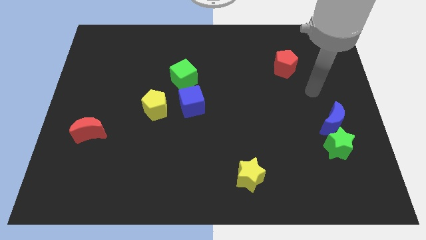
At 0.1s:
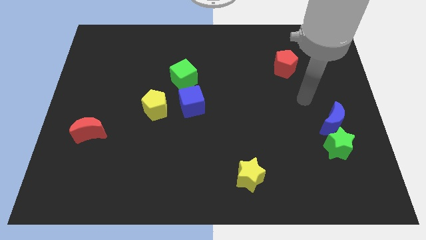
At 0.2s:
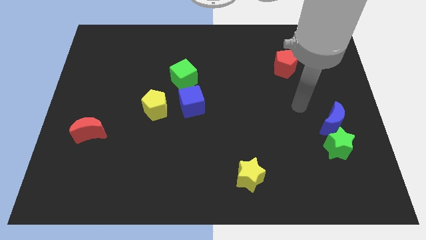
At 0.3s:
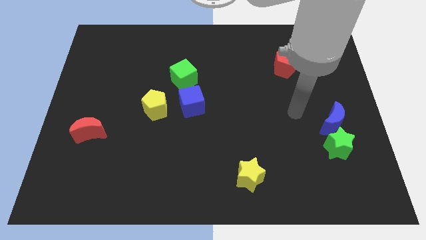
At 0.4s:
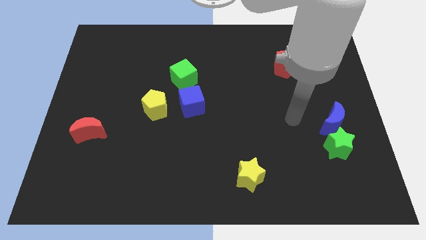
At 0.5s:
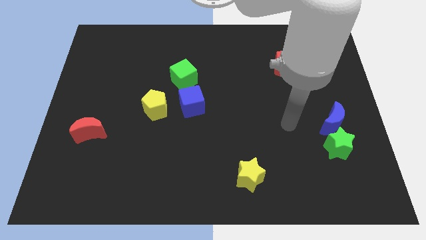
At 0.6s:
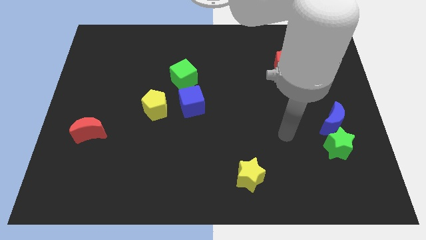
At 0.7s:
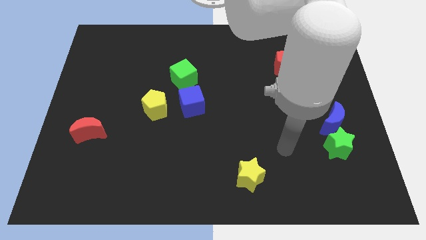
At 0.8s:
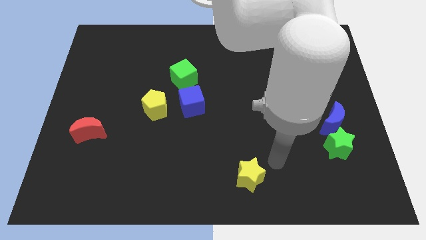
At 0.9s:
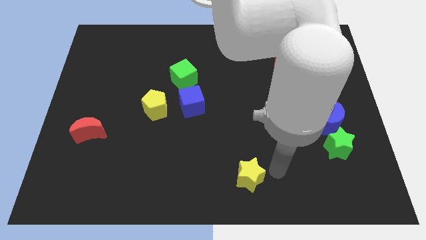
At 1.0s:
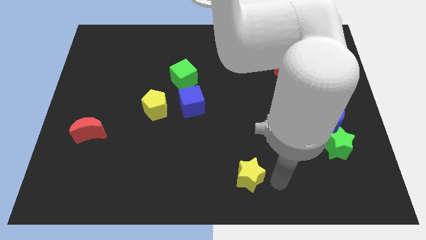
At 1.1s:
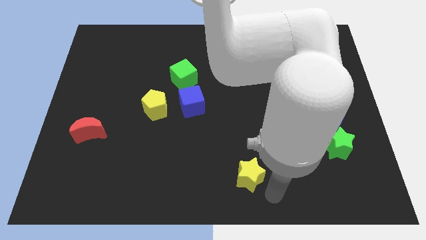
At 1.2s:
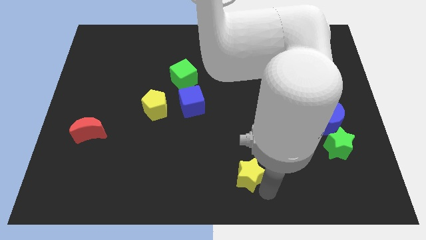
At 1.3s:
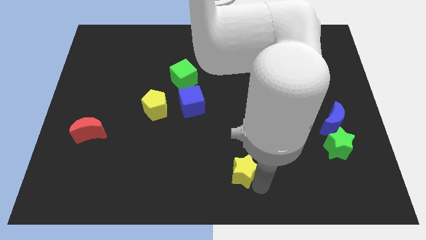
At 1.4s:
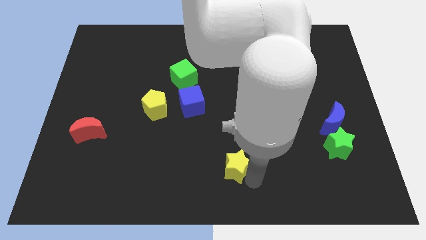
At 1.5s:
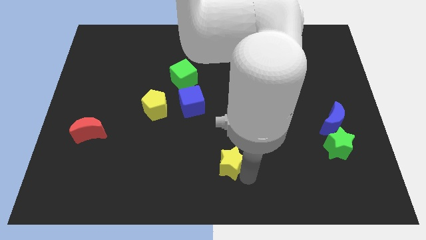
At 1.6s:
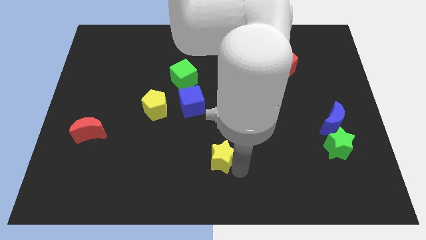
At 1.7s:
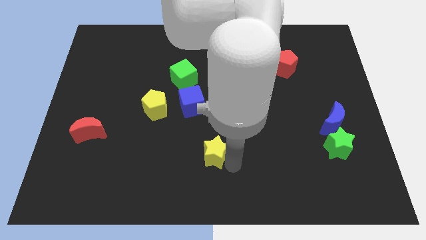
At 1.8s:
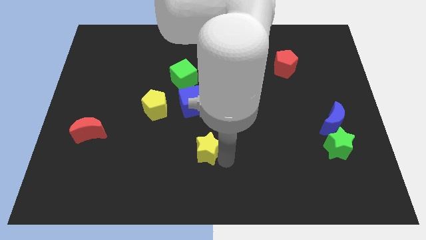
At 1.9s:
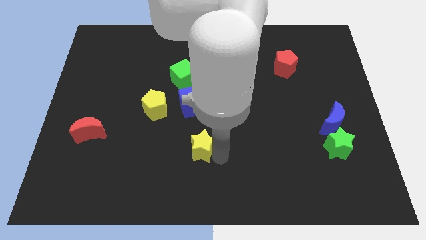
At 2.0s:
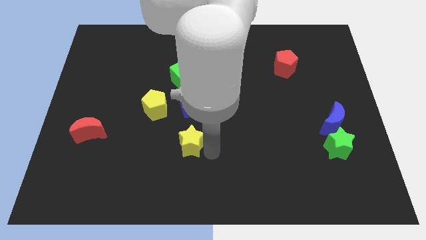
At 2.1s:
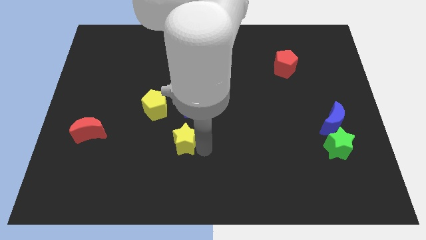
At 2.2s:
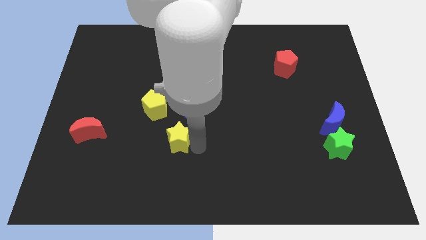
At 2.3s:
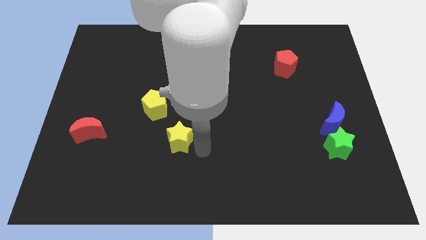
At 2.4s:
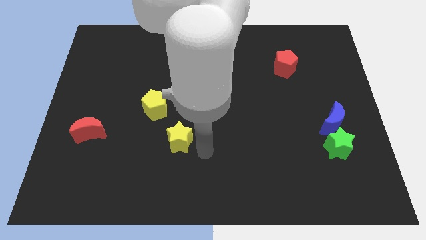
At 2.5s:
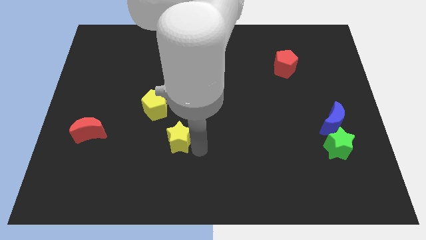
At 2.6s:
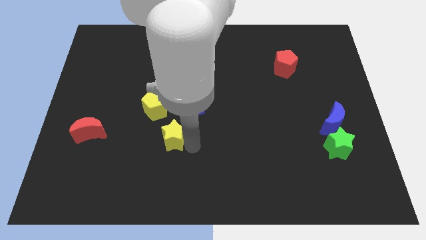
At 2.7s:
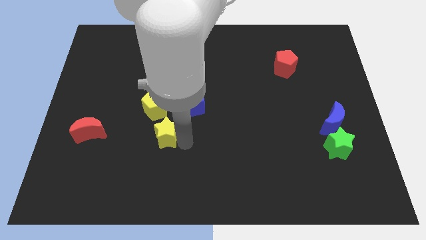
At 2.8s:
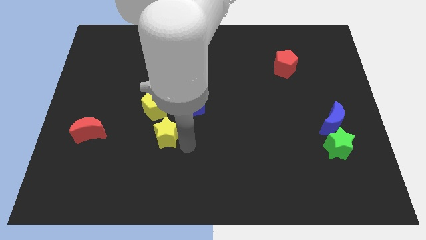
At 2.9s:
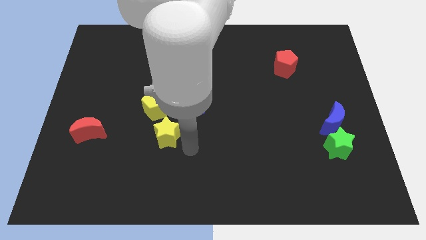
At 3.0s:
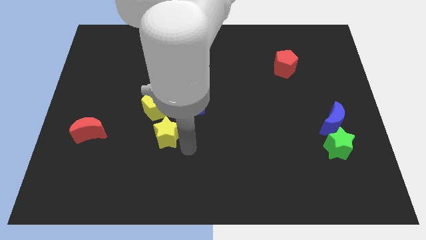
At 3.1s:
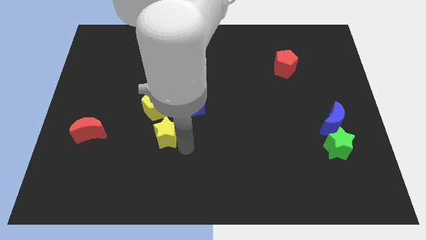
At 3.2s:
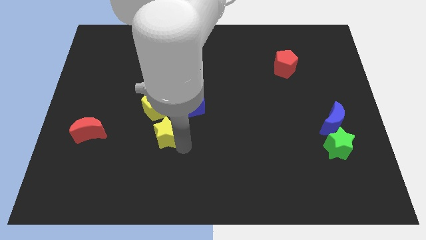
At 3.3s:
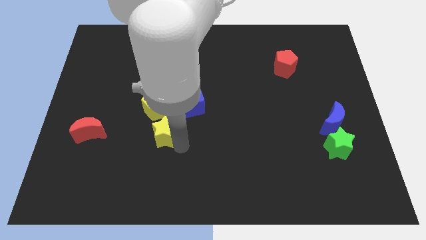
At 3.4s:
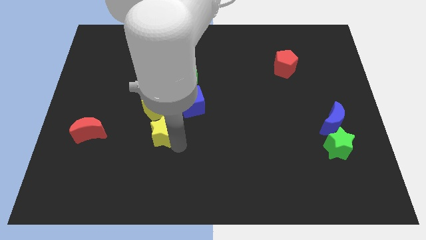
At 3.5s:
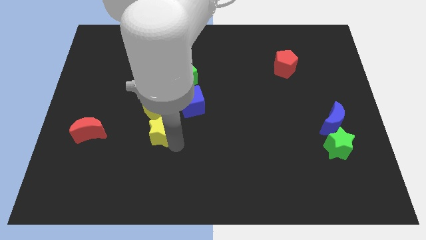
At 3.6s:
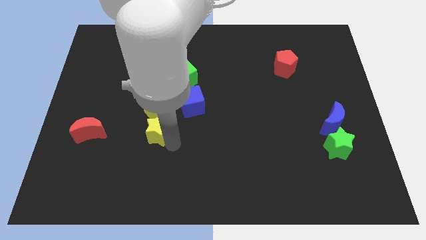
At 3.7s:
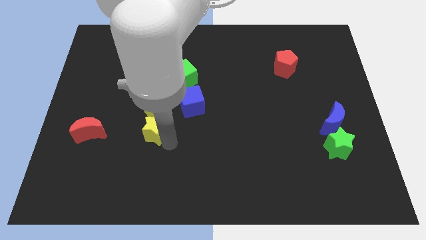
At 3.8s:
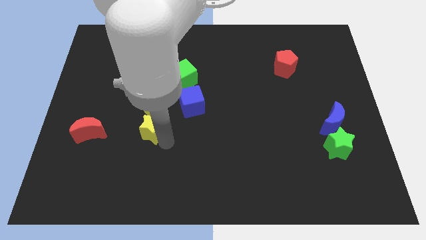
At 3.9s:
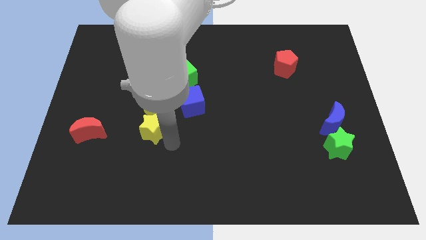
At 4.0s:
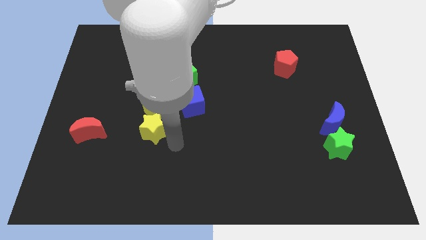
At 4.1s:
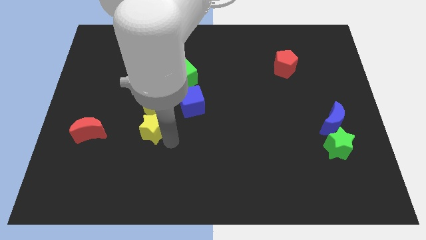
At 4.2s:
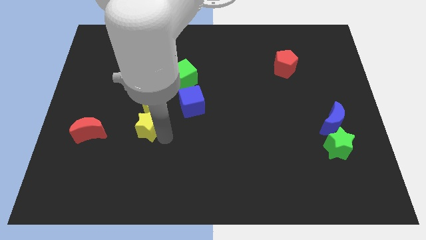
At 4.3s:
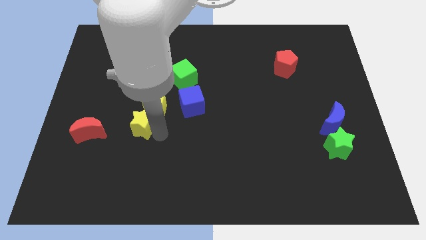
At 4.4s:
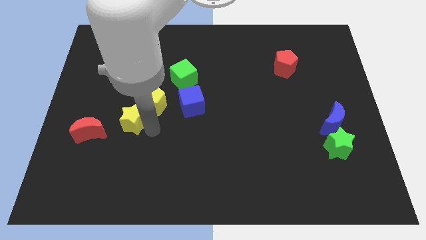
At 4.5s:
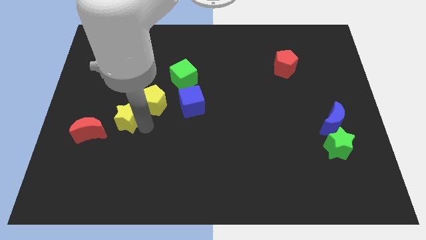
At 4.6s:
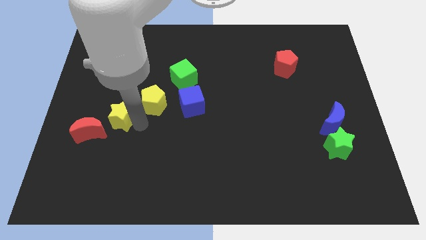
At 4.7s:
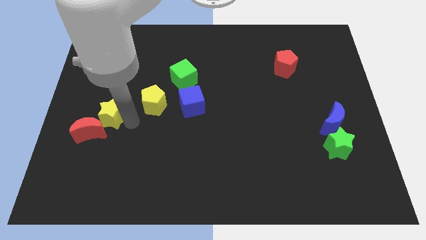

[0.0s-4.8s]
slide the yellow star to the top of the red moon

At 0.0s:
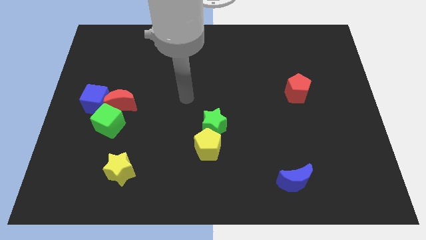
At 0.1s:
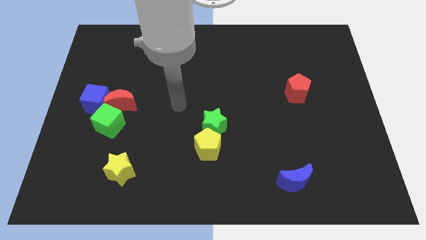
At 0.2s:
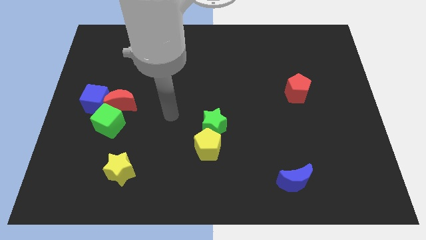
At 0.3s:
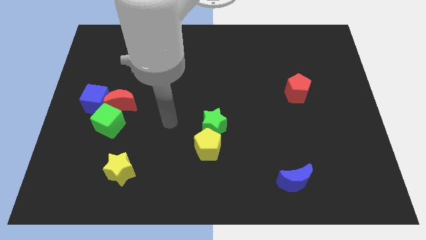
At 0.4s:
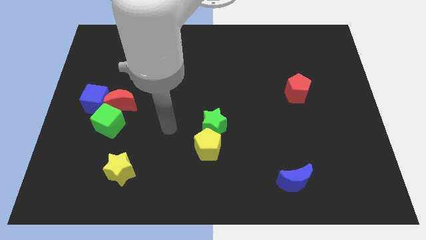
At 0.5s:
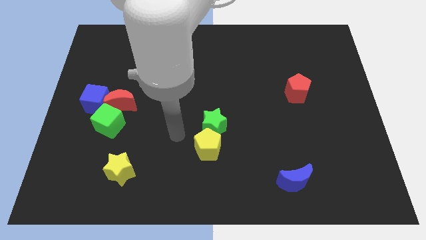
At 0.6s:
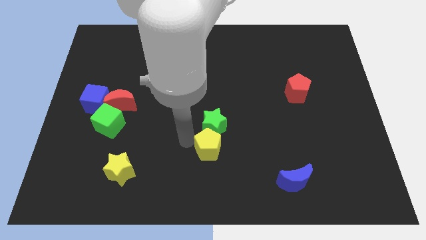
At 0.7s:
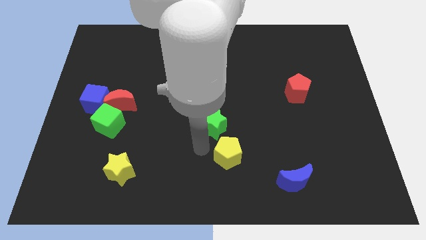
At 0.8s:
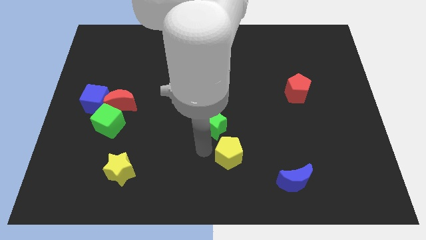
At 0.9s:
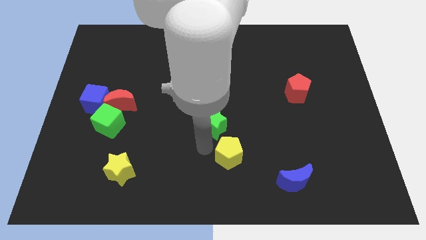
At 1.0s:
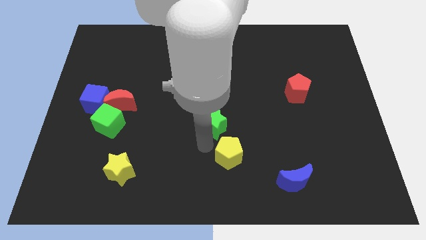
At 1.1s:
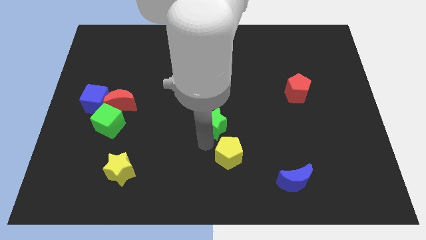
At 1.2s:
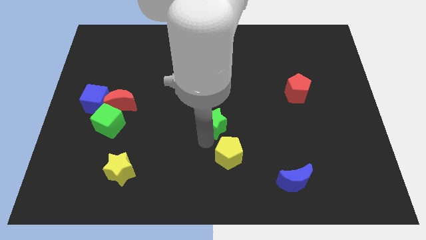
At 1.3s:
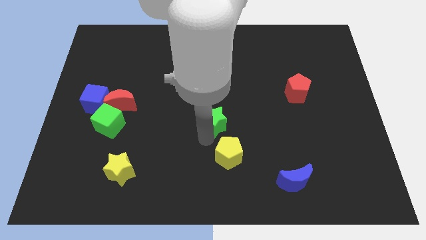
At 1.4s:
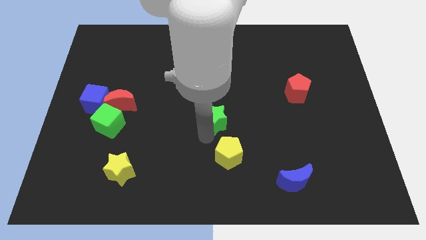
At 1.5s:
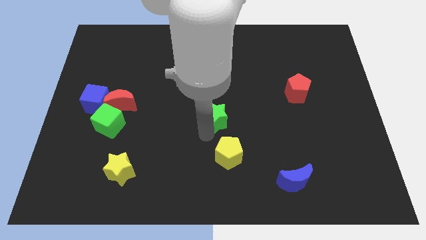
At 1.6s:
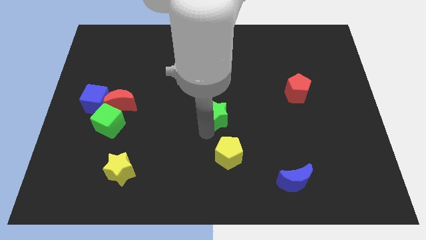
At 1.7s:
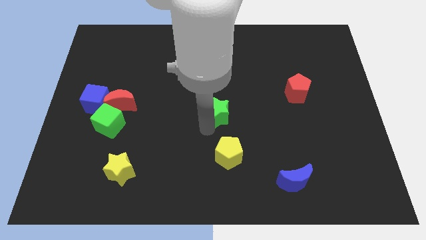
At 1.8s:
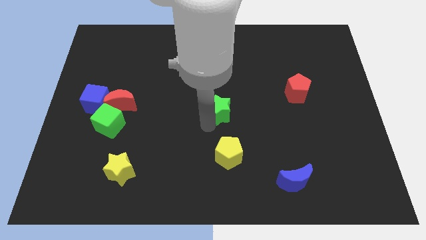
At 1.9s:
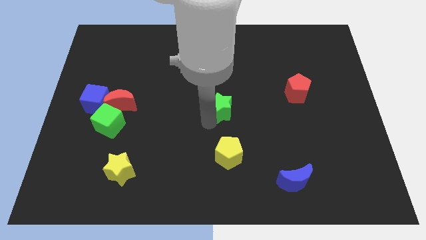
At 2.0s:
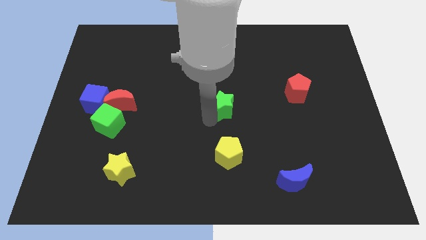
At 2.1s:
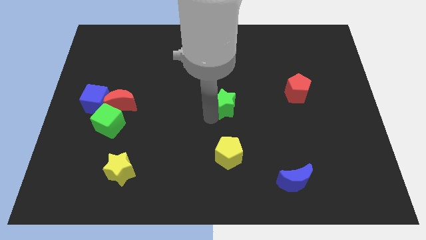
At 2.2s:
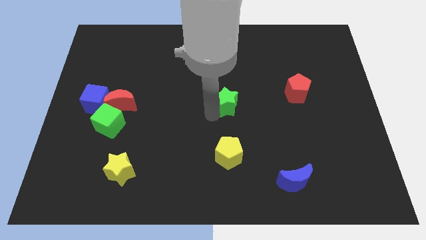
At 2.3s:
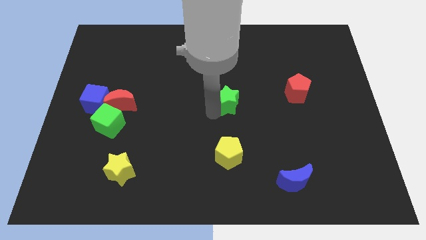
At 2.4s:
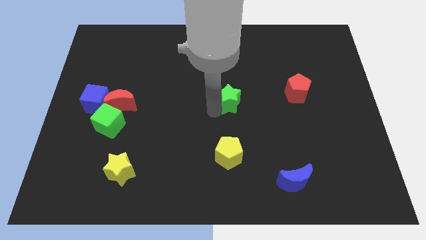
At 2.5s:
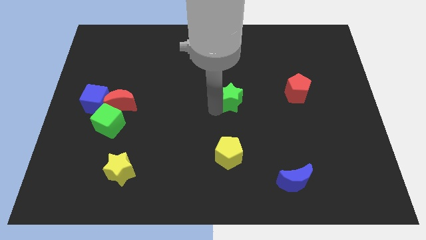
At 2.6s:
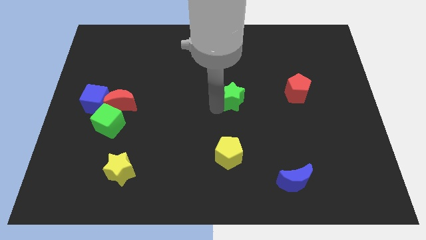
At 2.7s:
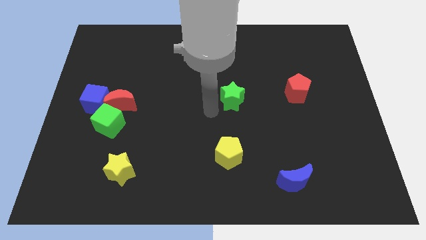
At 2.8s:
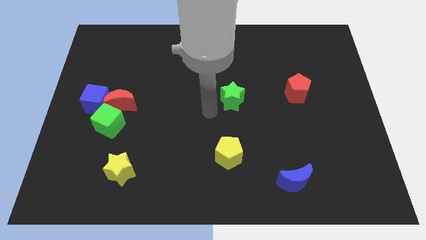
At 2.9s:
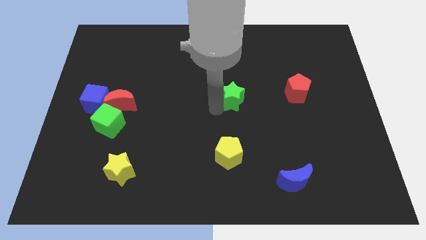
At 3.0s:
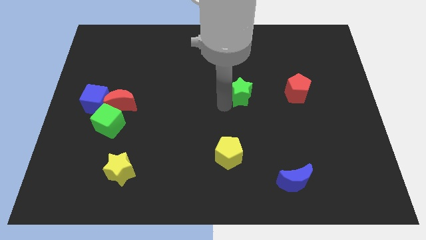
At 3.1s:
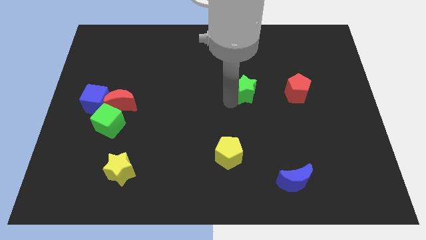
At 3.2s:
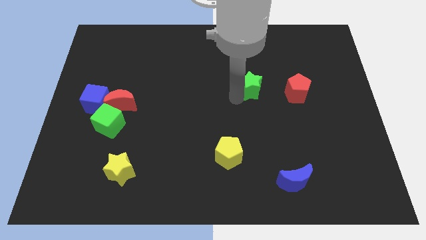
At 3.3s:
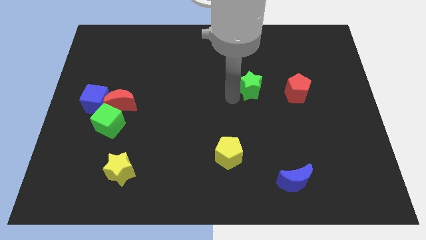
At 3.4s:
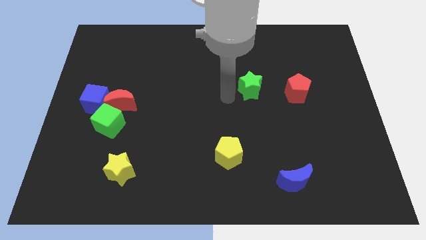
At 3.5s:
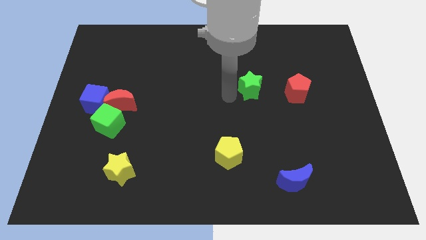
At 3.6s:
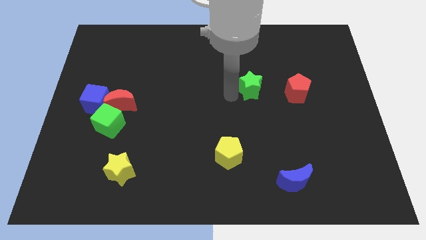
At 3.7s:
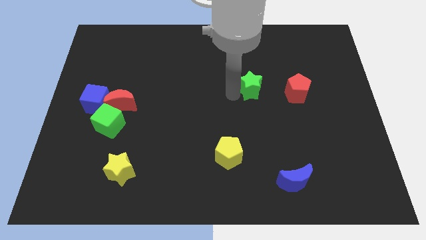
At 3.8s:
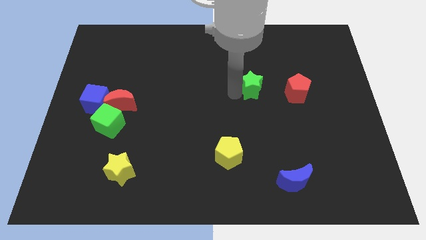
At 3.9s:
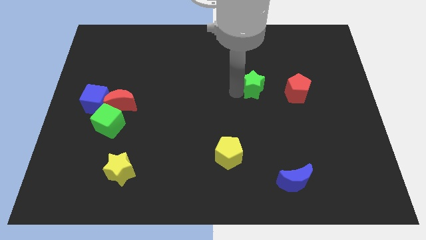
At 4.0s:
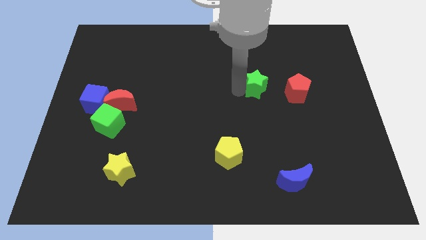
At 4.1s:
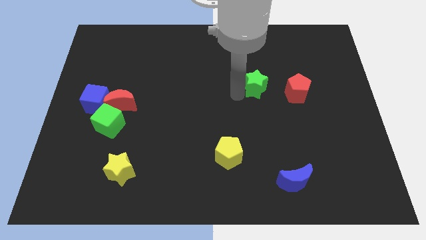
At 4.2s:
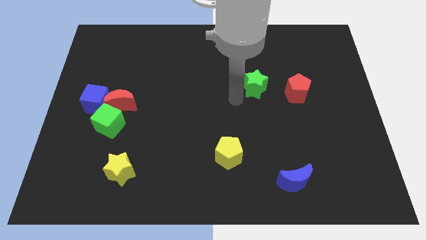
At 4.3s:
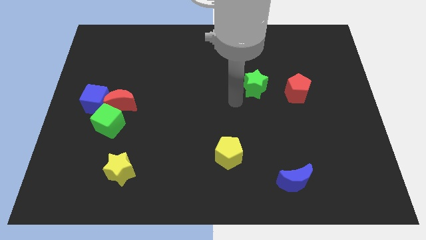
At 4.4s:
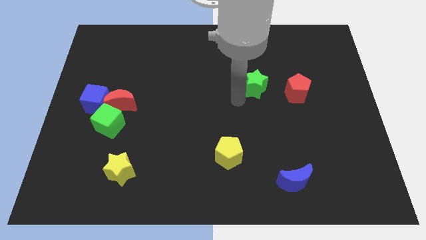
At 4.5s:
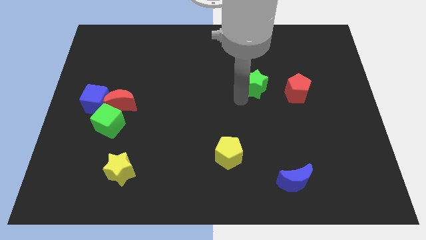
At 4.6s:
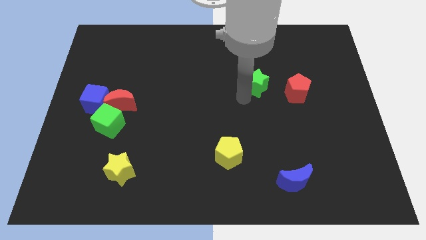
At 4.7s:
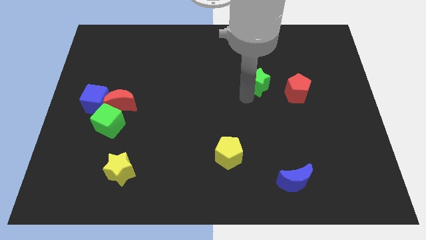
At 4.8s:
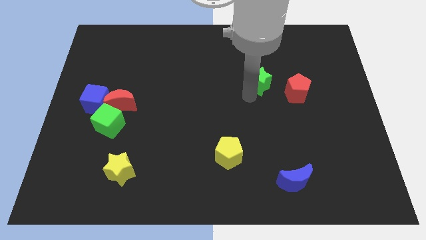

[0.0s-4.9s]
slide the green star to the top left side of the red pentagon
